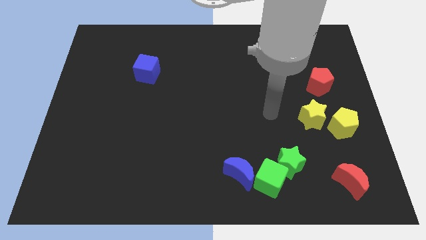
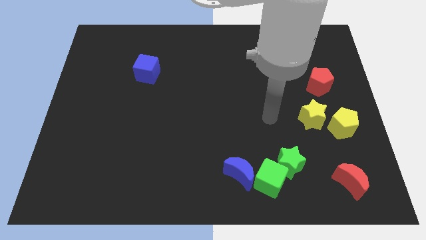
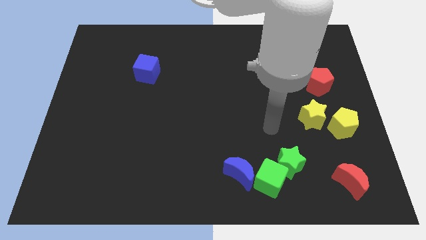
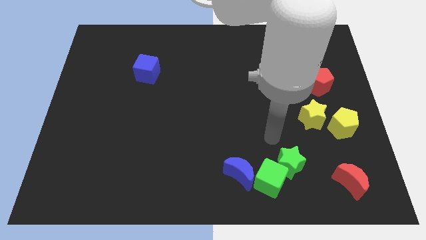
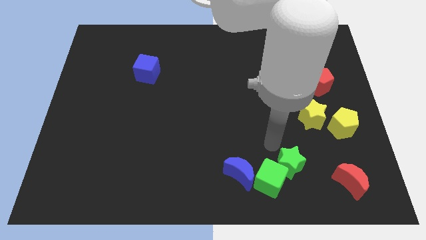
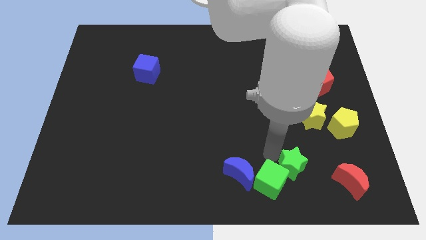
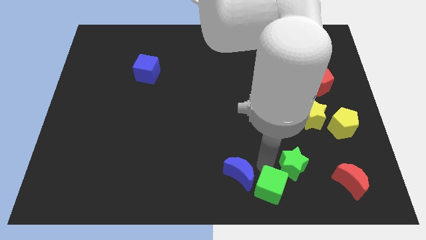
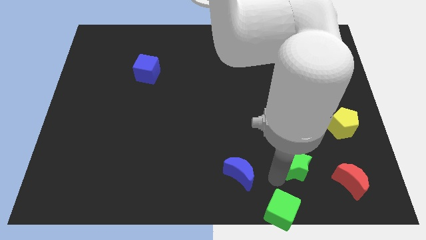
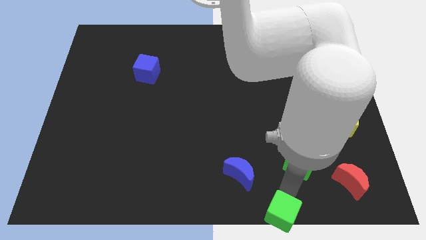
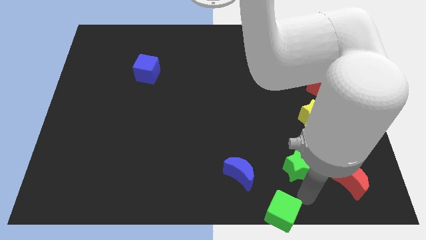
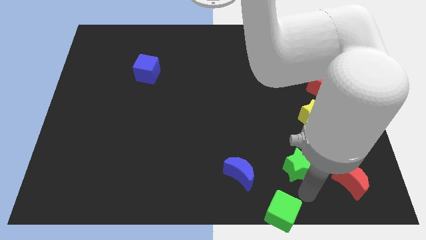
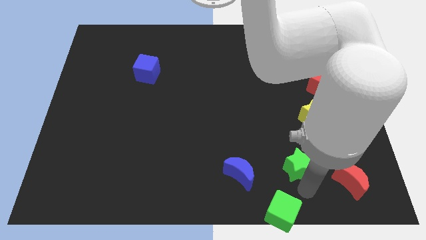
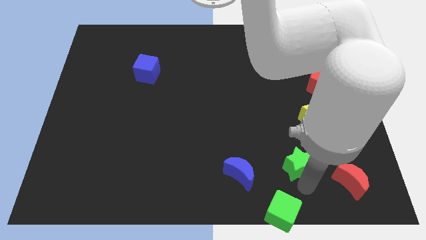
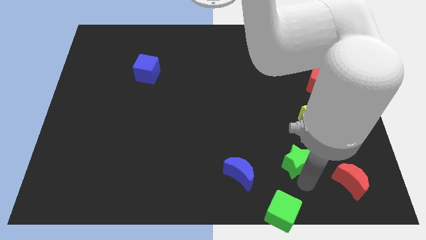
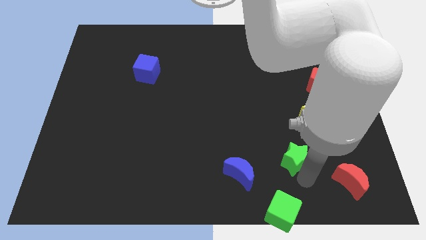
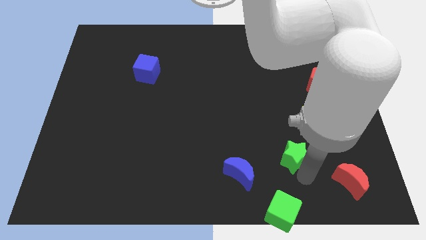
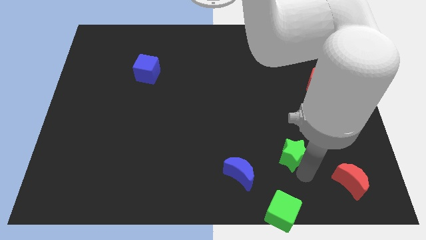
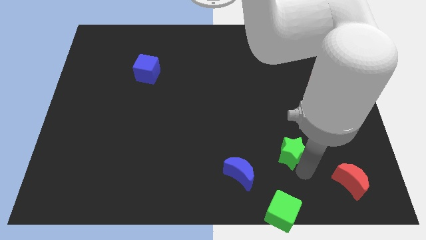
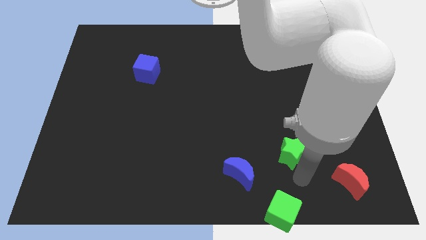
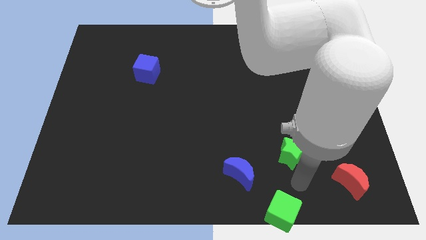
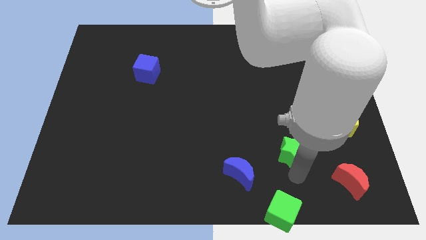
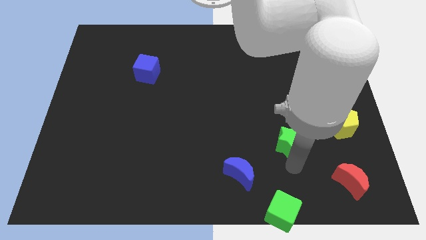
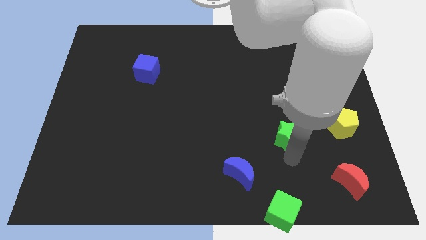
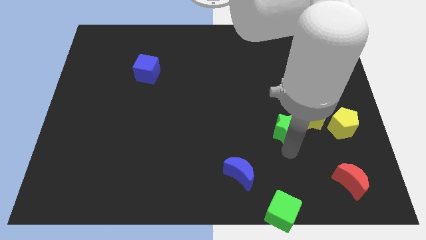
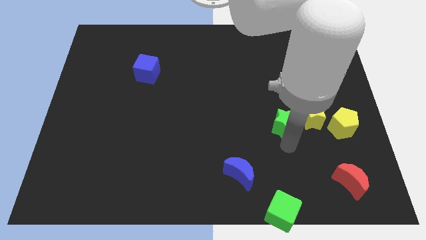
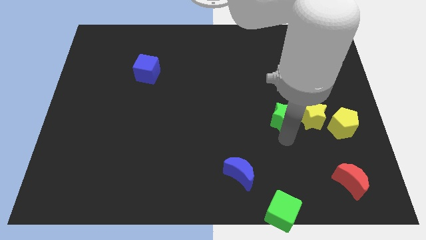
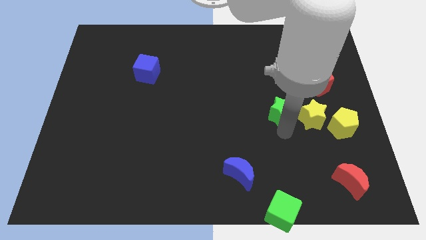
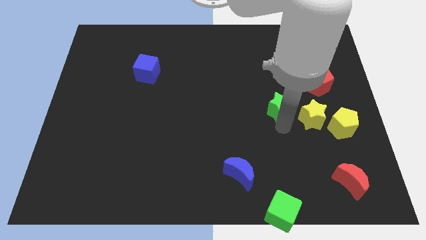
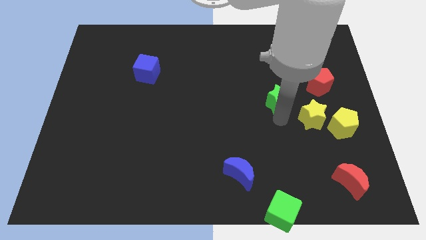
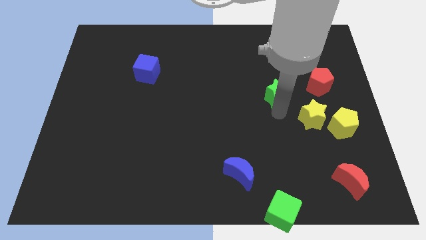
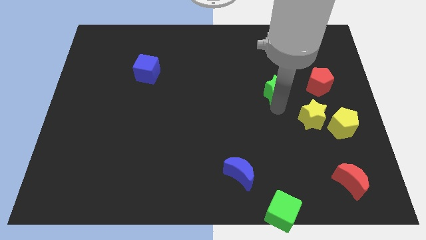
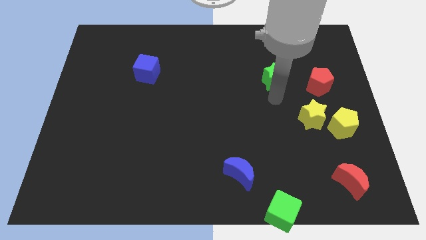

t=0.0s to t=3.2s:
push the green star upwards

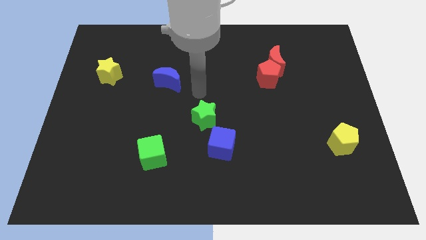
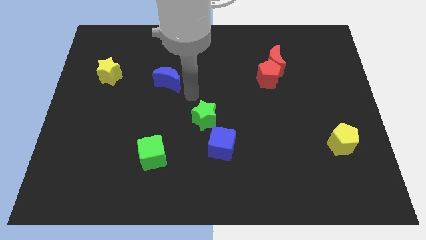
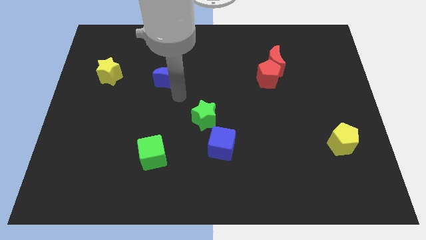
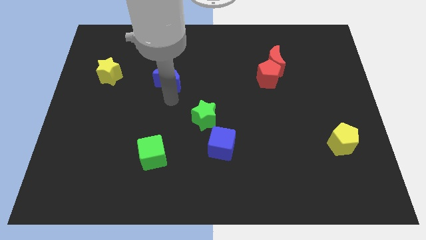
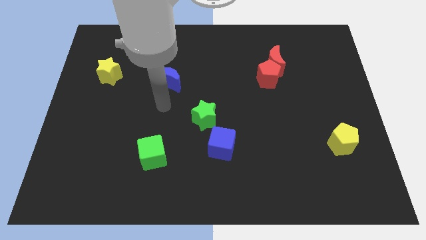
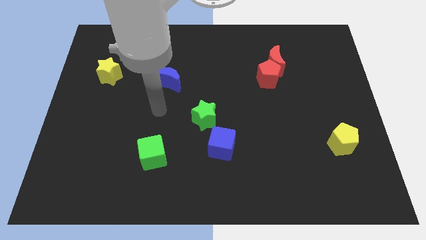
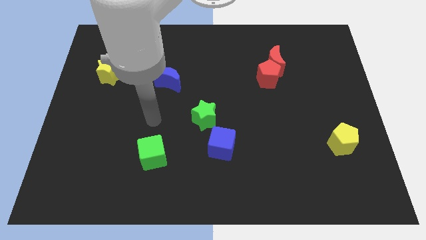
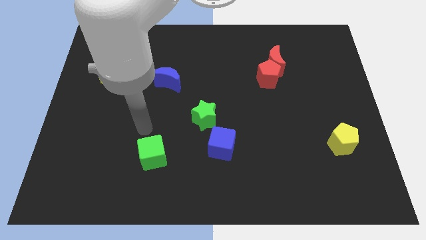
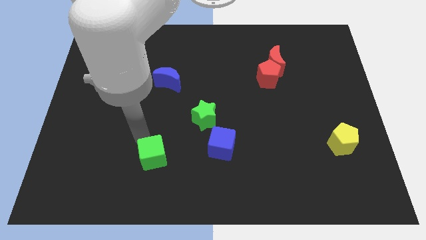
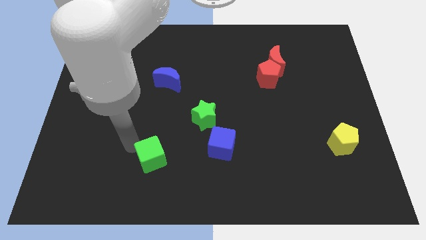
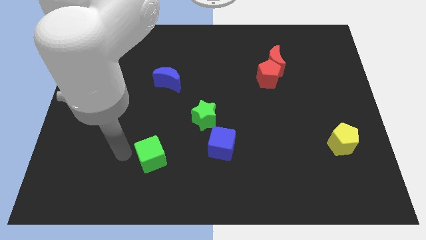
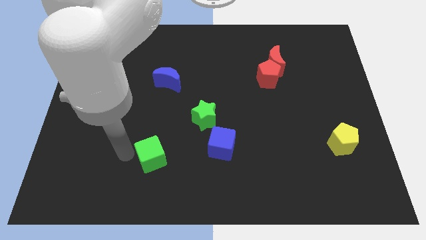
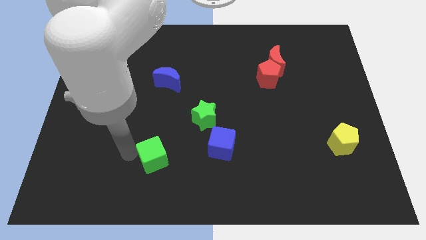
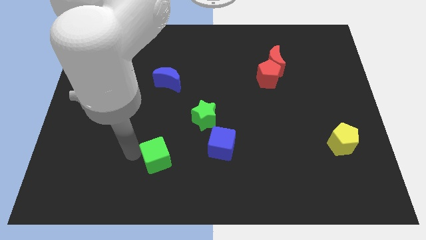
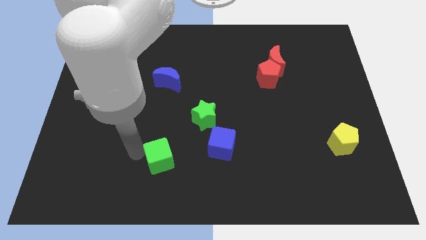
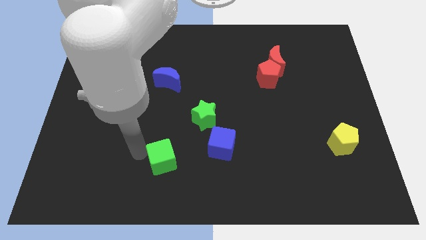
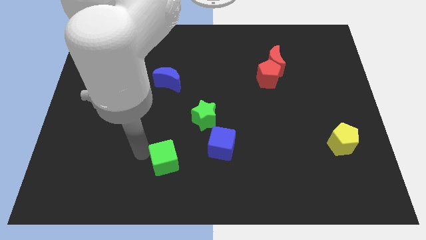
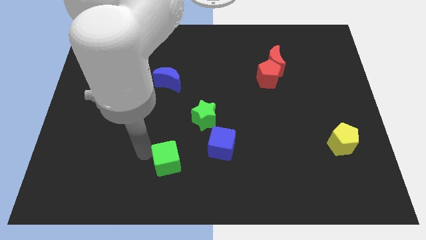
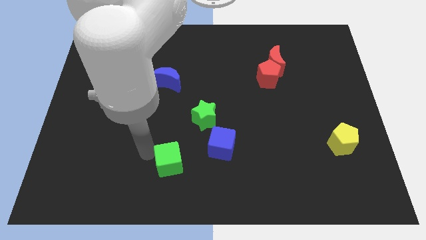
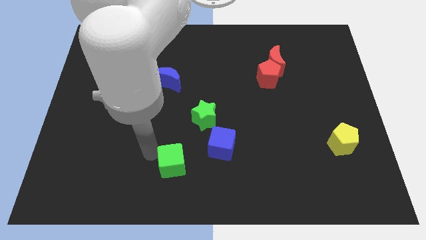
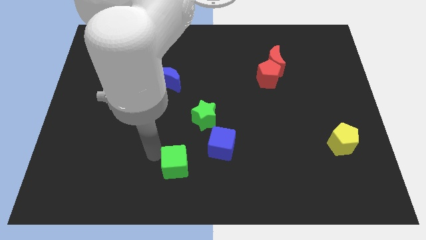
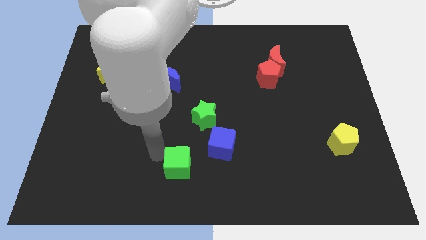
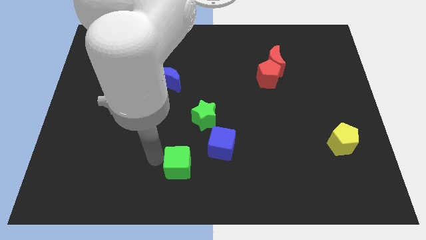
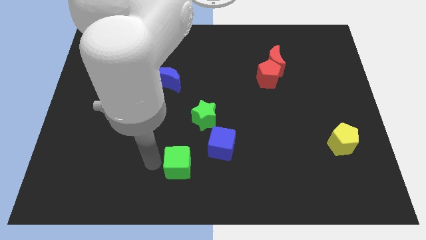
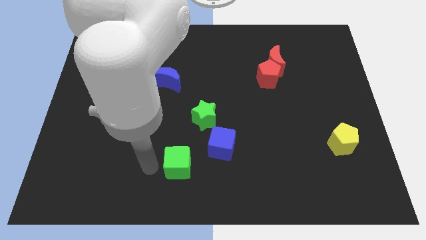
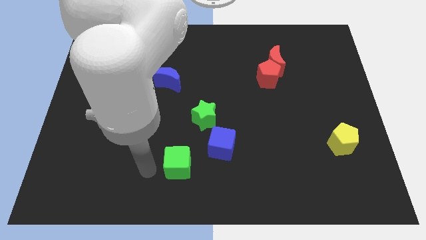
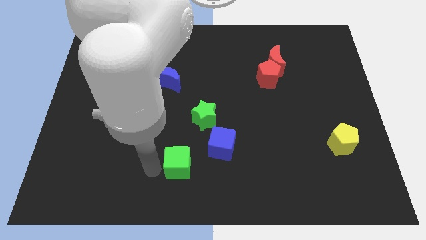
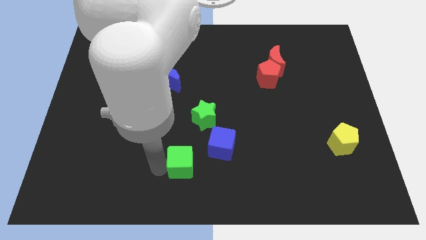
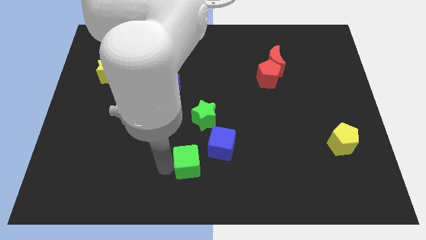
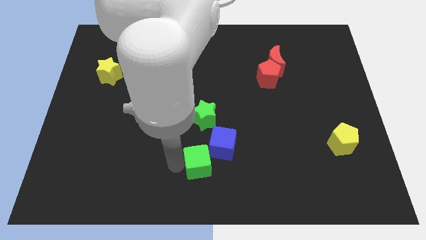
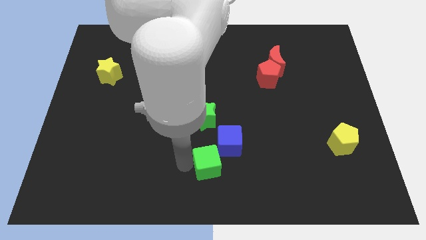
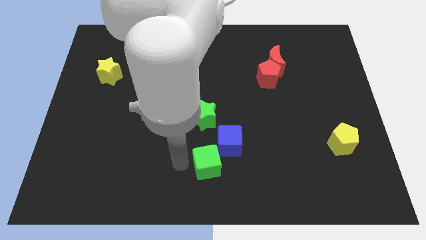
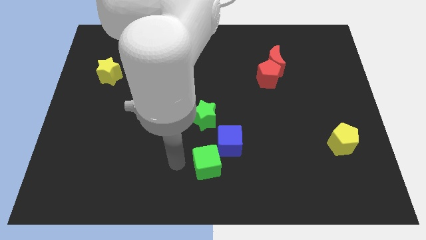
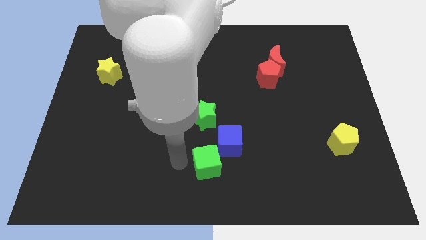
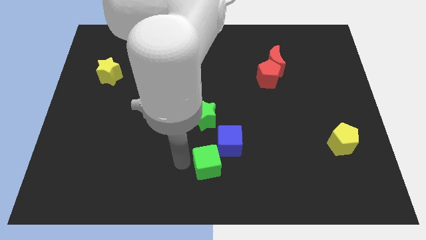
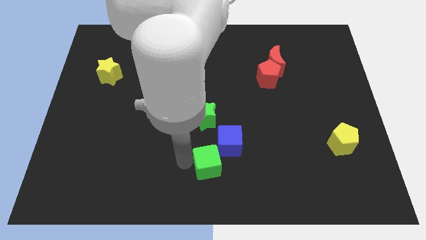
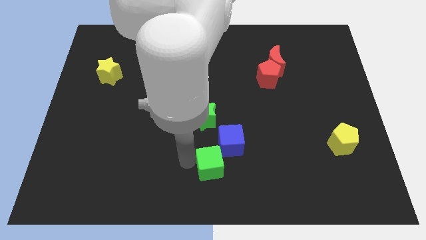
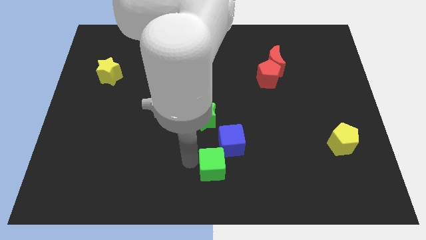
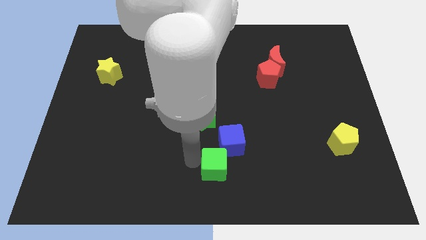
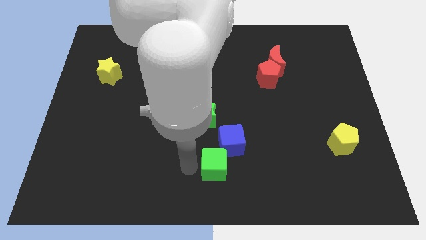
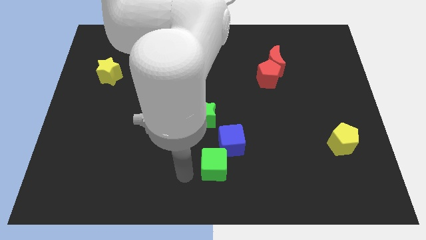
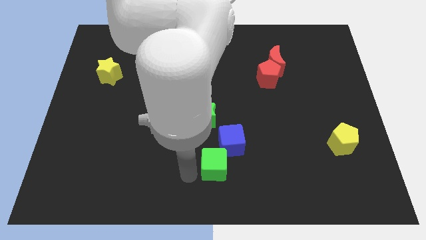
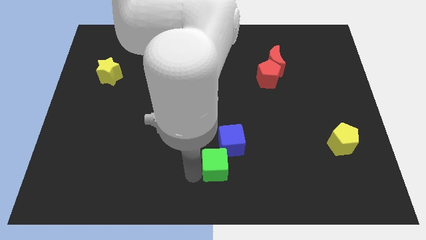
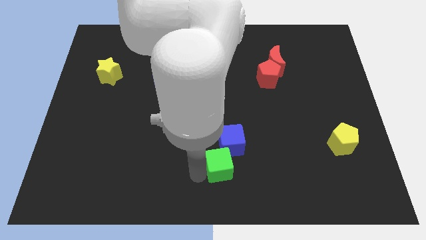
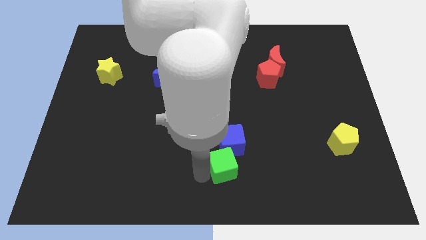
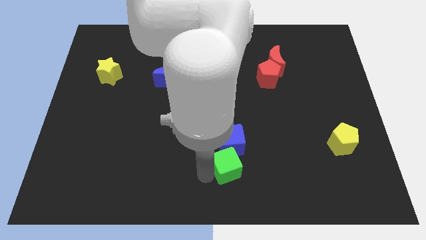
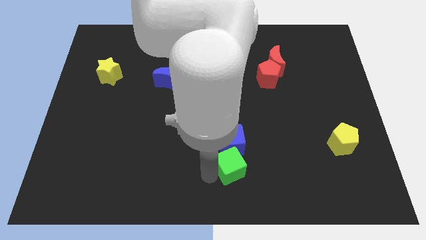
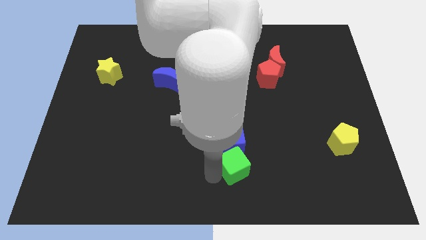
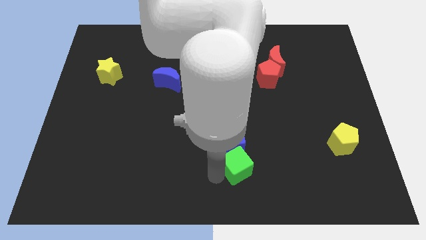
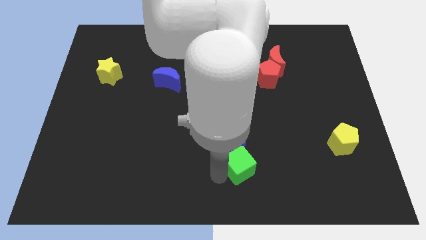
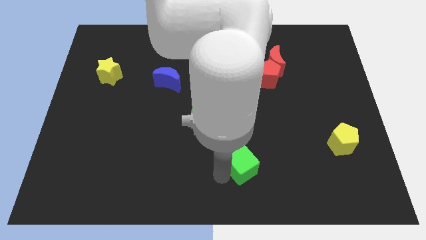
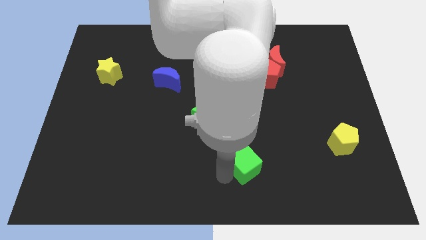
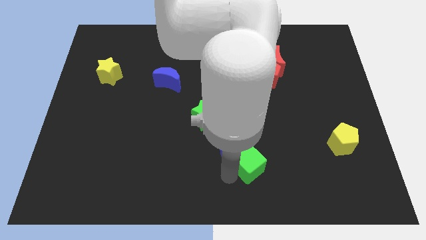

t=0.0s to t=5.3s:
push the green cube right
